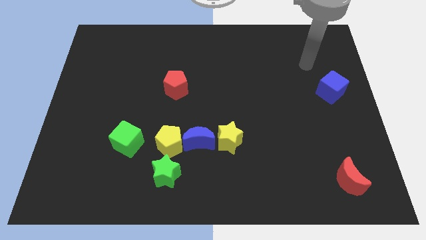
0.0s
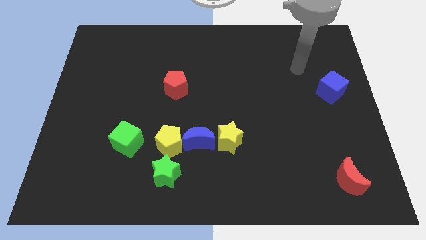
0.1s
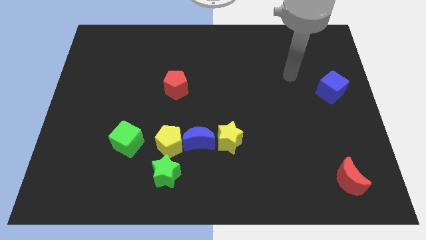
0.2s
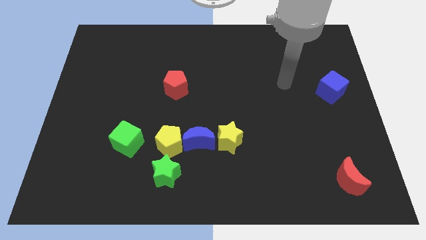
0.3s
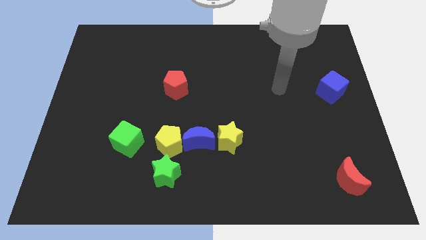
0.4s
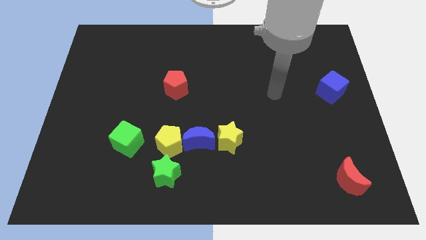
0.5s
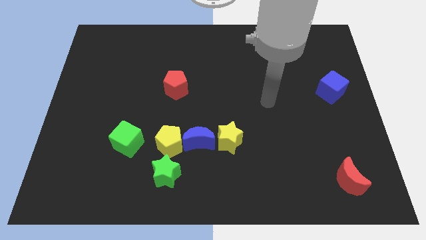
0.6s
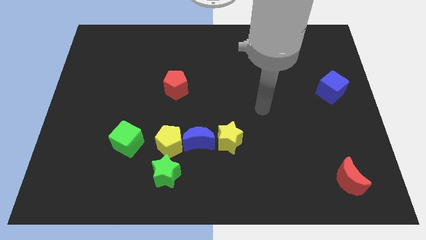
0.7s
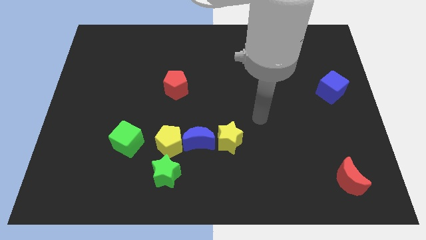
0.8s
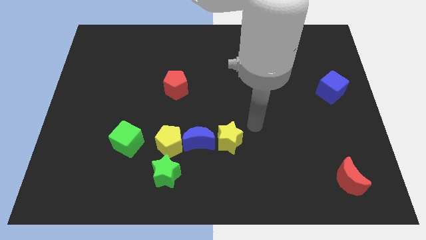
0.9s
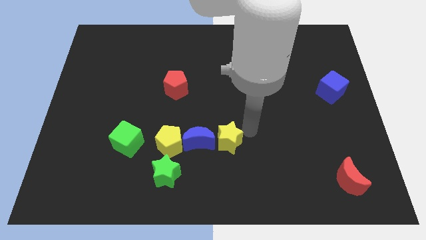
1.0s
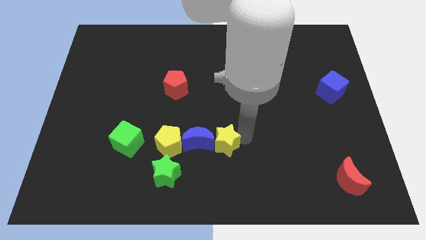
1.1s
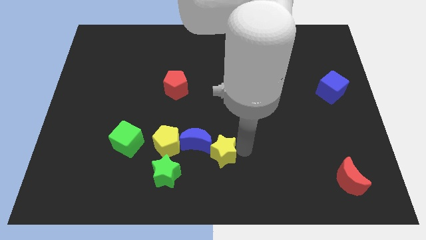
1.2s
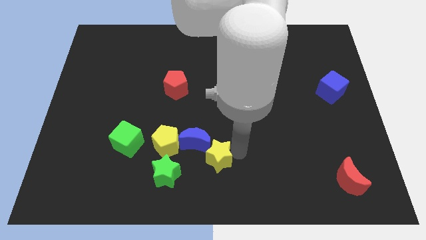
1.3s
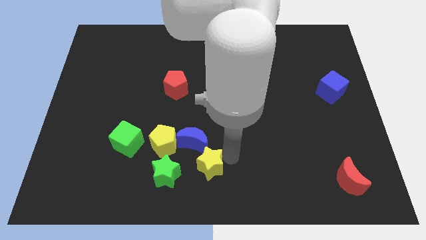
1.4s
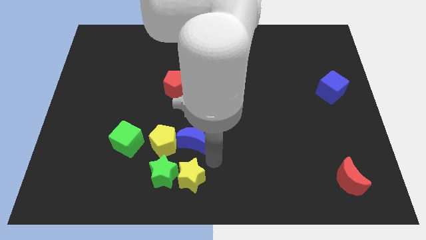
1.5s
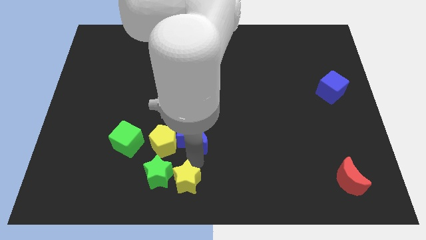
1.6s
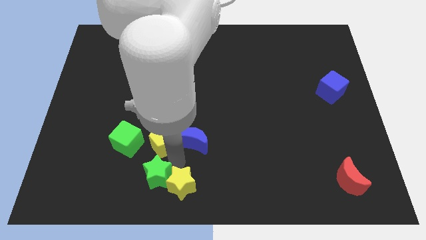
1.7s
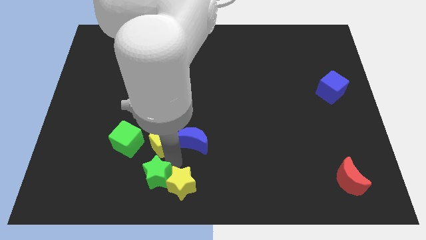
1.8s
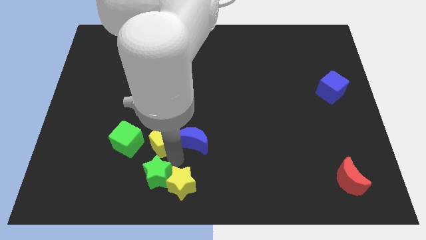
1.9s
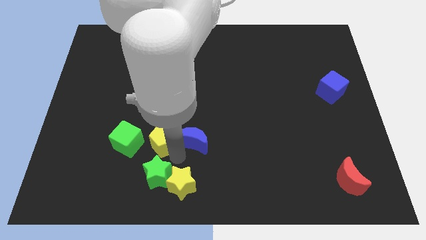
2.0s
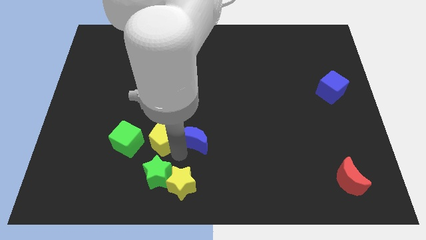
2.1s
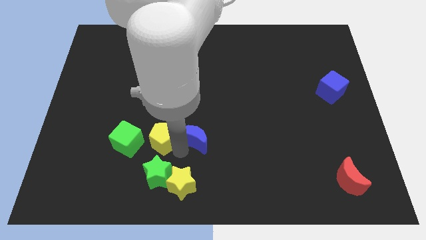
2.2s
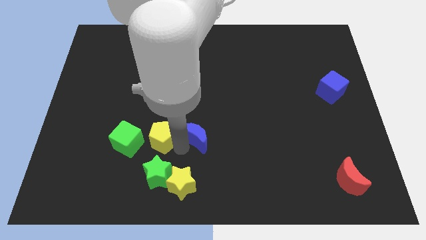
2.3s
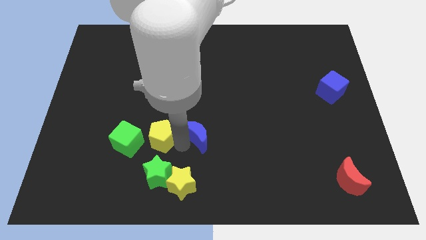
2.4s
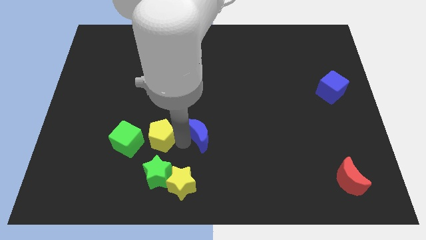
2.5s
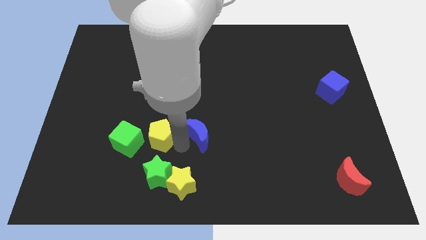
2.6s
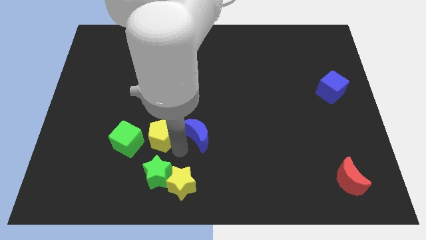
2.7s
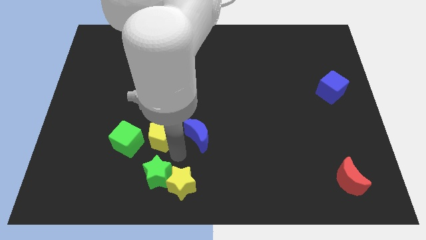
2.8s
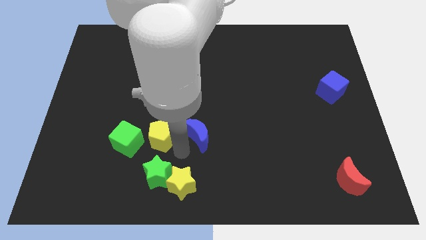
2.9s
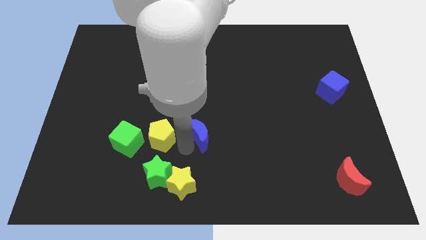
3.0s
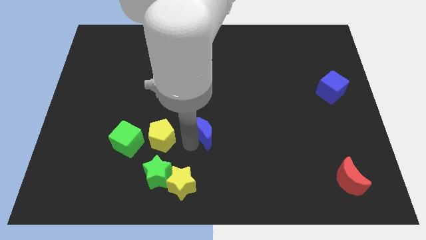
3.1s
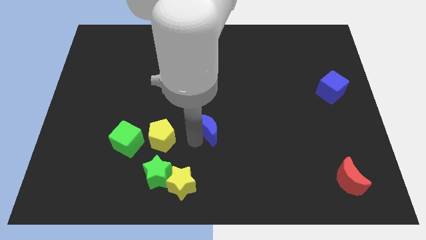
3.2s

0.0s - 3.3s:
move the blue moon away from the yellow pentagon and yellow star

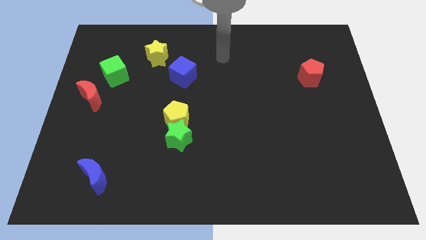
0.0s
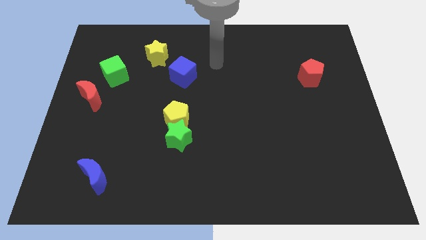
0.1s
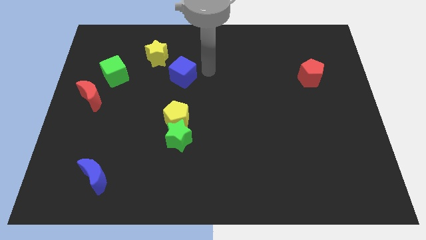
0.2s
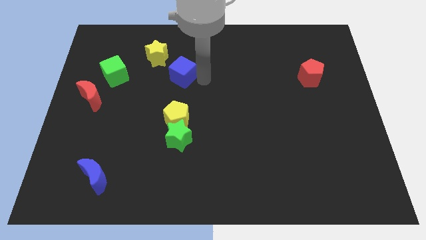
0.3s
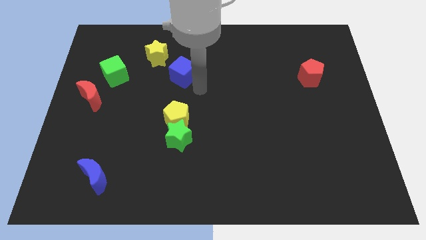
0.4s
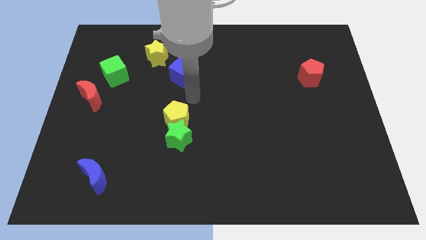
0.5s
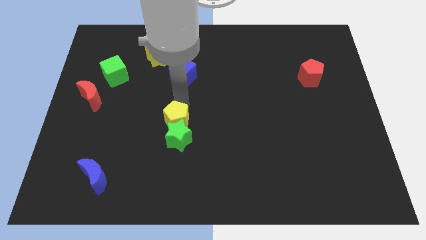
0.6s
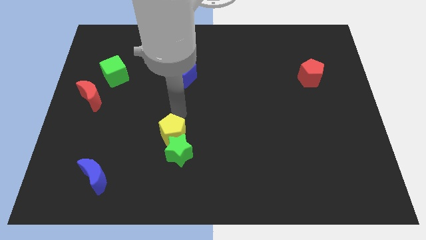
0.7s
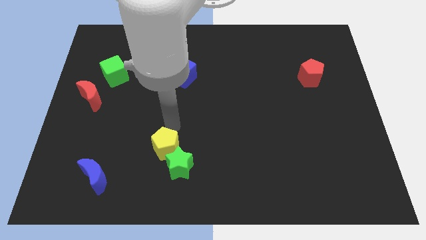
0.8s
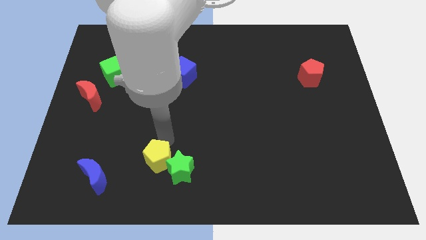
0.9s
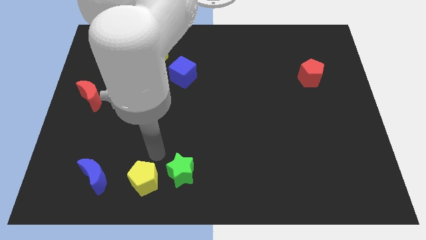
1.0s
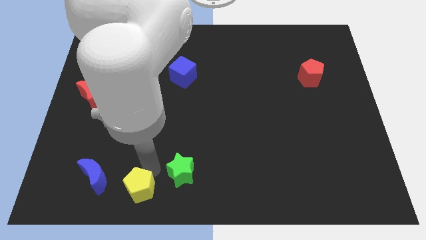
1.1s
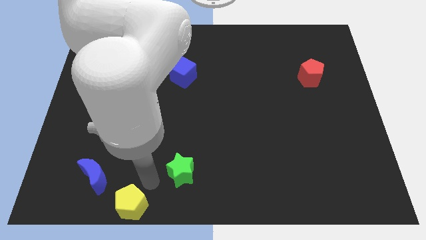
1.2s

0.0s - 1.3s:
separate the green star from the yellow pentagon

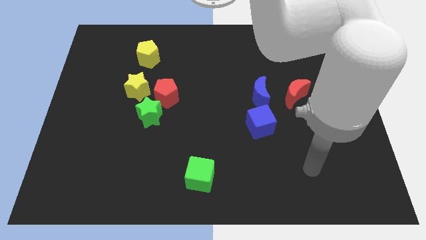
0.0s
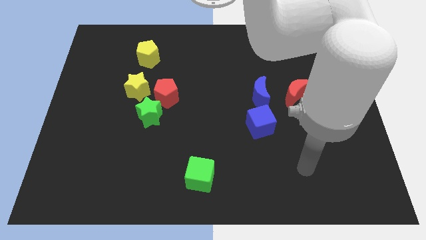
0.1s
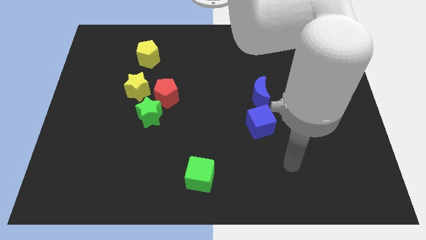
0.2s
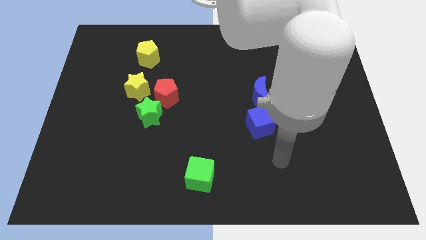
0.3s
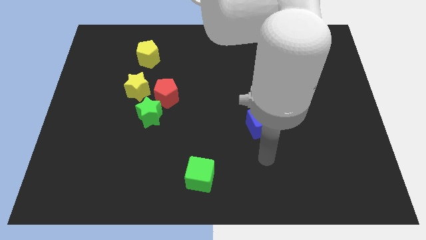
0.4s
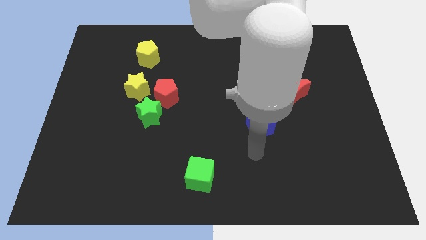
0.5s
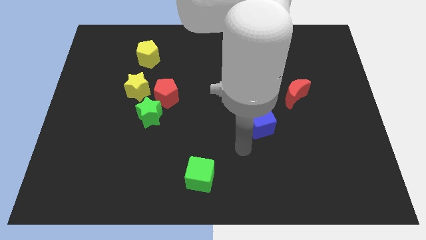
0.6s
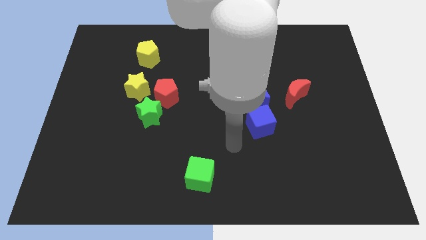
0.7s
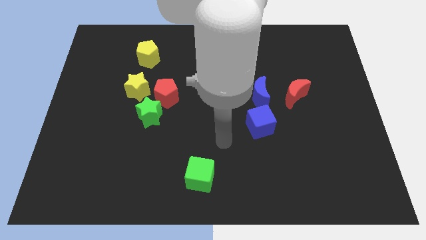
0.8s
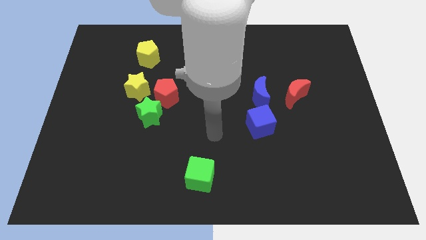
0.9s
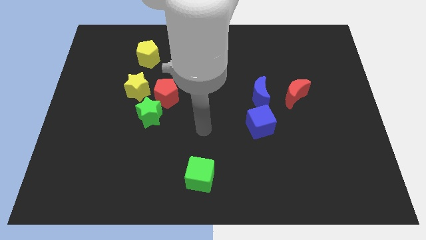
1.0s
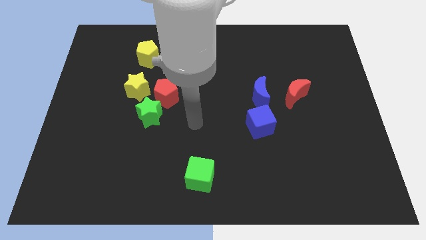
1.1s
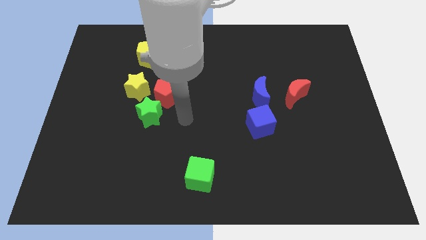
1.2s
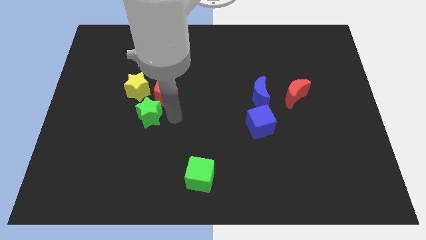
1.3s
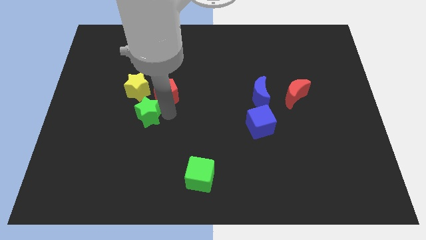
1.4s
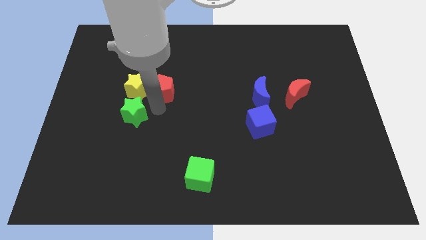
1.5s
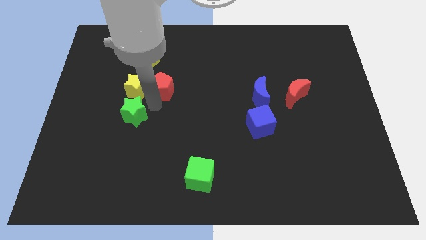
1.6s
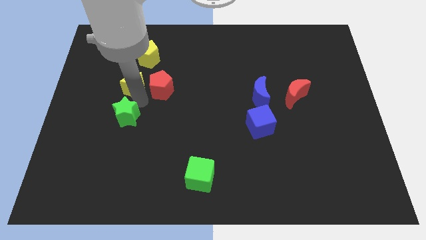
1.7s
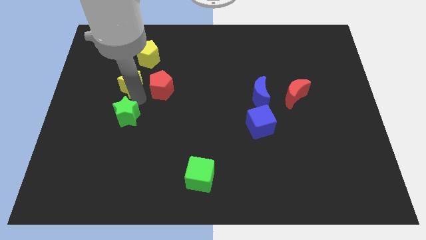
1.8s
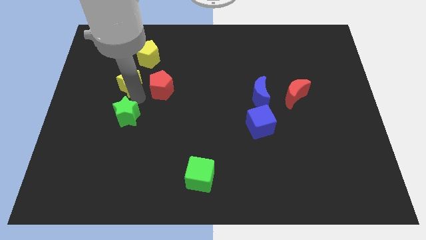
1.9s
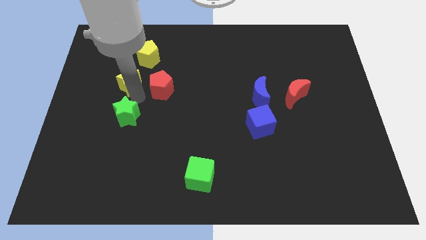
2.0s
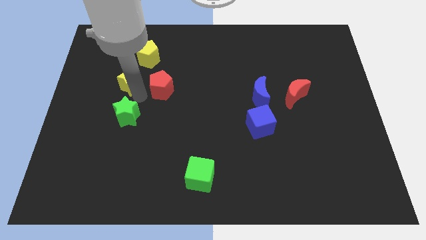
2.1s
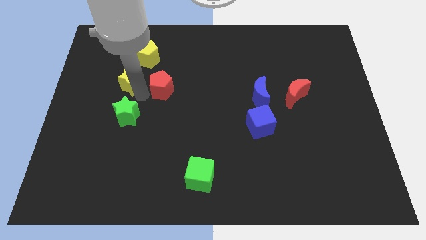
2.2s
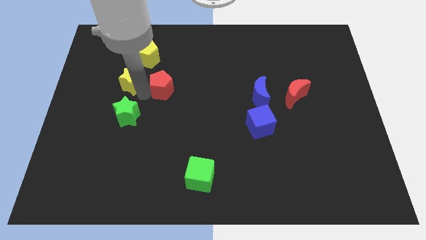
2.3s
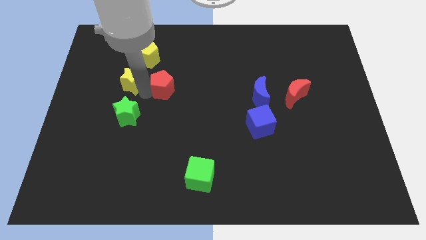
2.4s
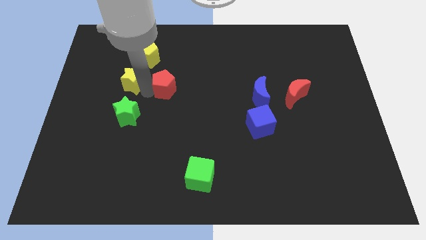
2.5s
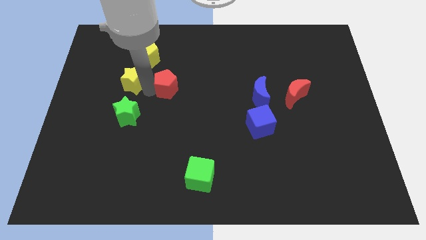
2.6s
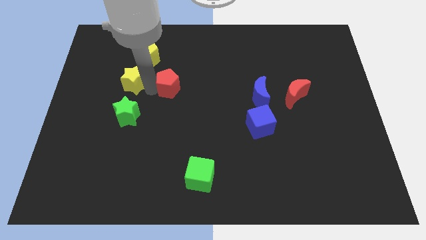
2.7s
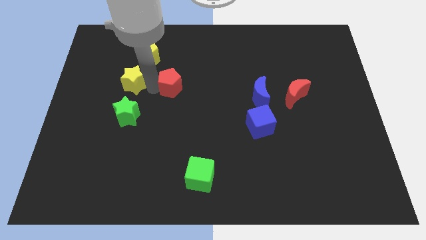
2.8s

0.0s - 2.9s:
move the red pentagon away from the green star and yellow star

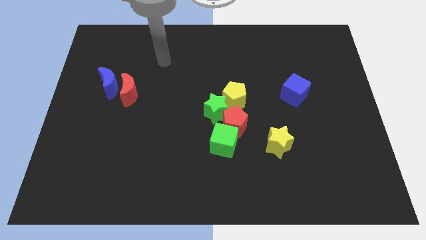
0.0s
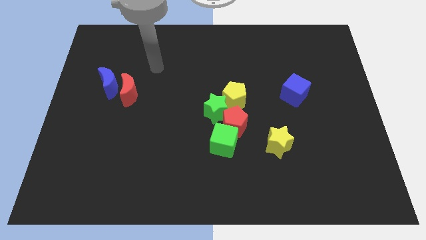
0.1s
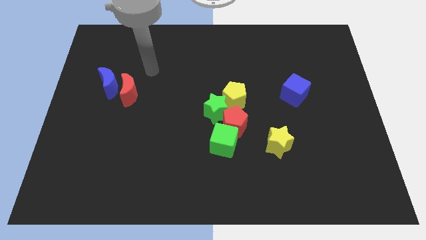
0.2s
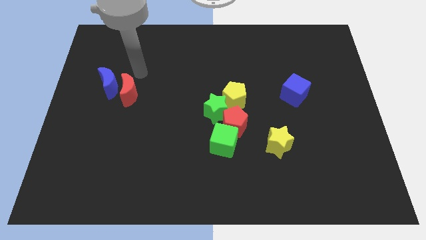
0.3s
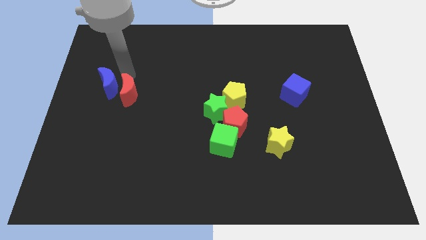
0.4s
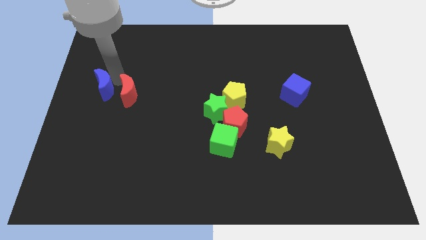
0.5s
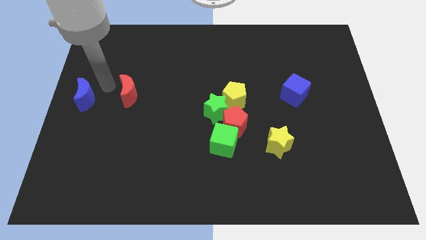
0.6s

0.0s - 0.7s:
move the red moon away from the blue moon

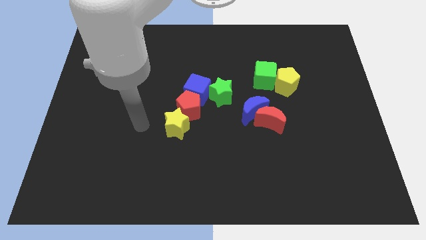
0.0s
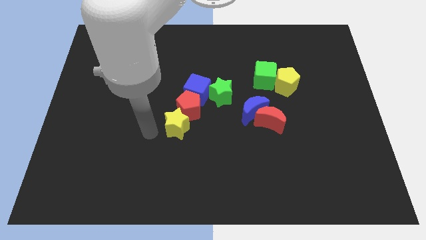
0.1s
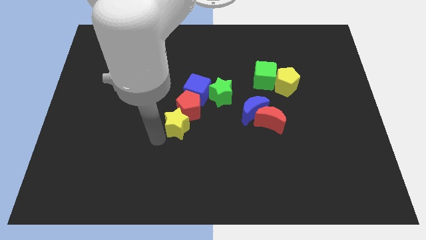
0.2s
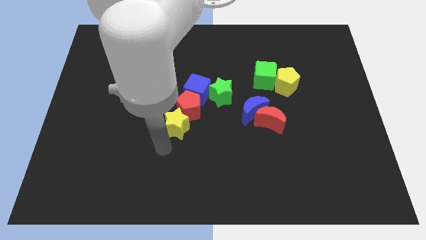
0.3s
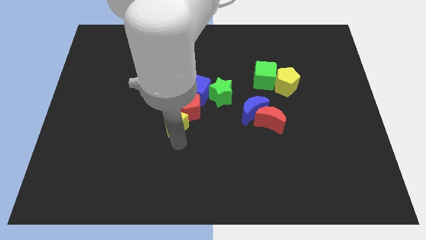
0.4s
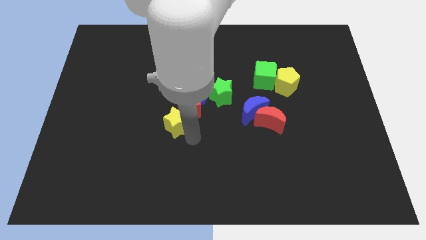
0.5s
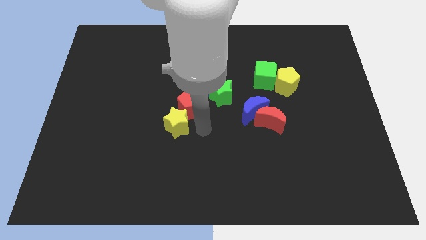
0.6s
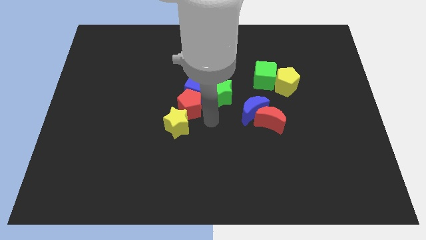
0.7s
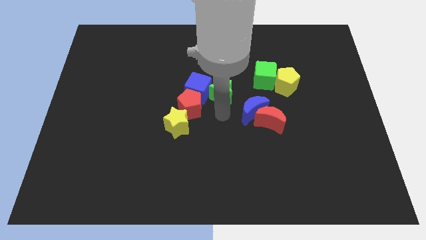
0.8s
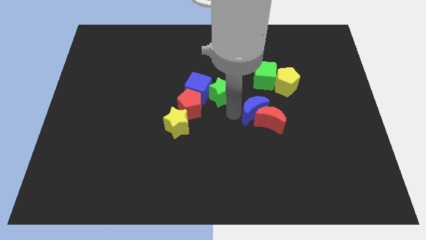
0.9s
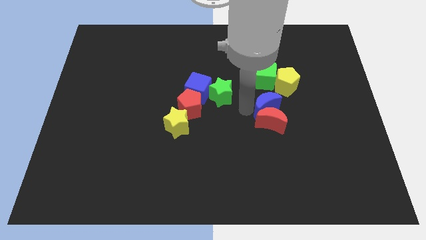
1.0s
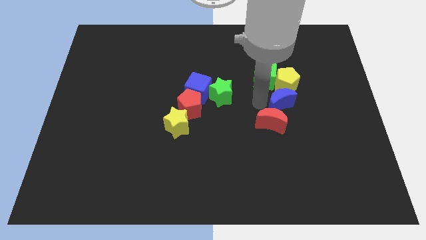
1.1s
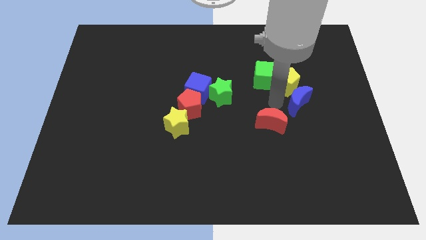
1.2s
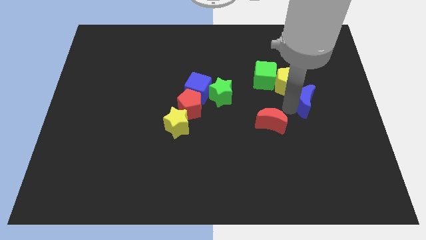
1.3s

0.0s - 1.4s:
pull the red moon apart from the blue moon
